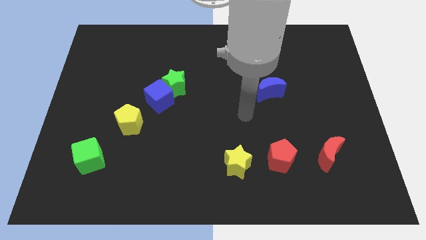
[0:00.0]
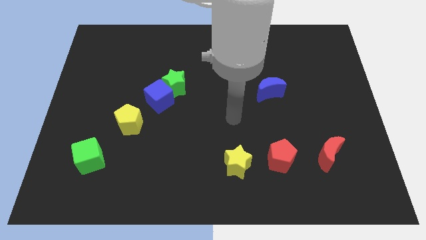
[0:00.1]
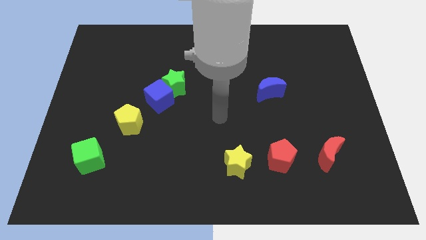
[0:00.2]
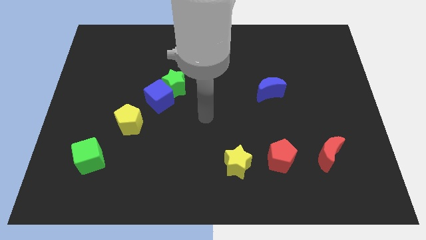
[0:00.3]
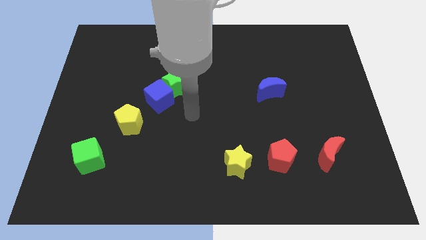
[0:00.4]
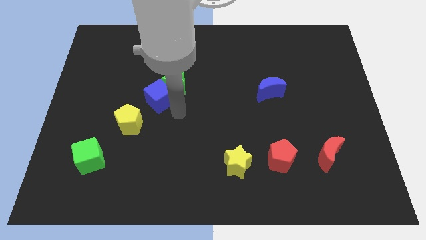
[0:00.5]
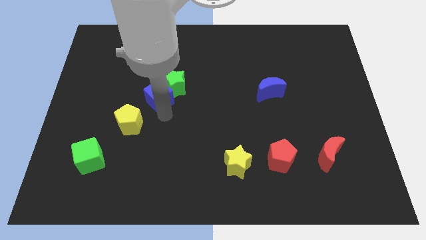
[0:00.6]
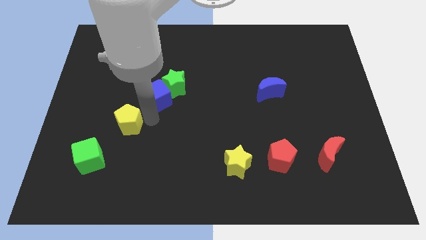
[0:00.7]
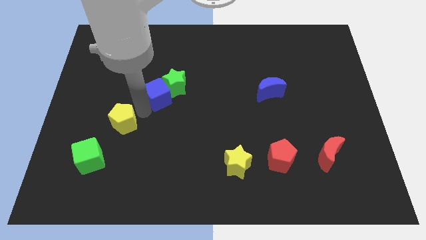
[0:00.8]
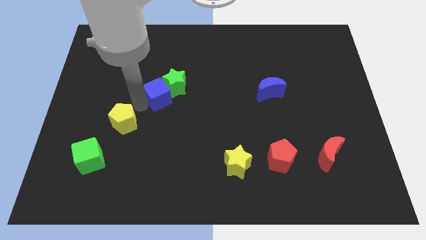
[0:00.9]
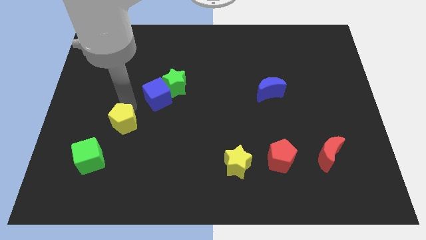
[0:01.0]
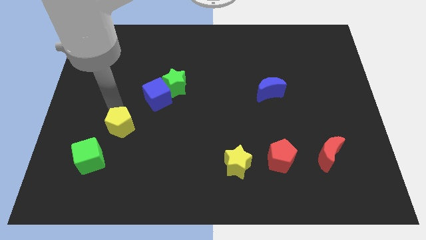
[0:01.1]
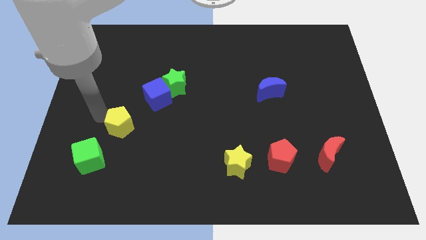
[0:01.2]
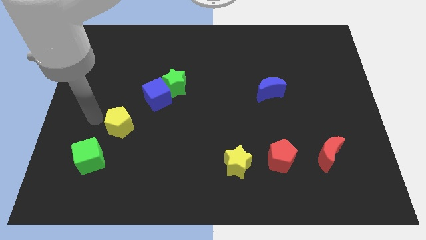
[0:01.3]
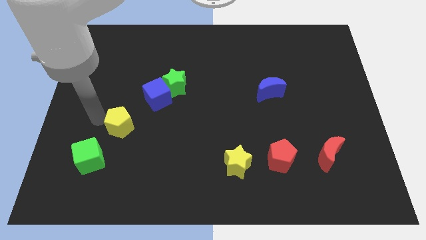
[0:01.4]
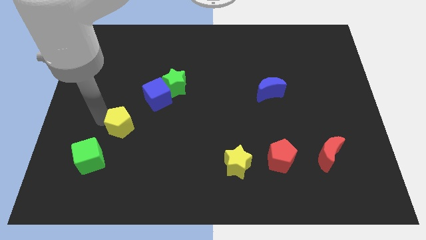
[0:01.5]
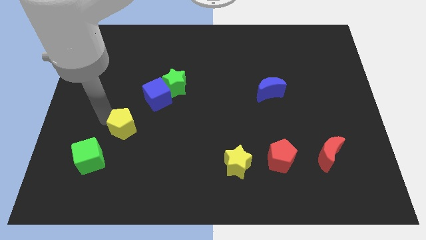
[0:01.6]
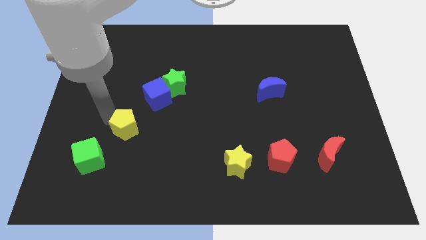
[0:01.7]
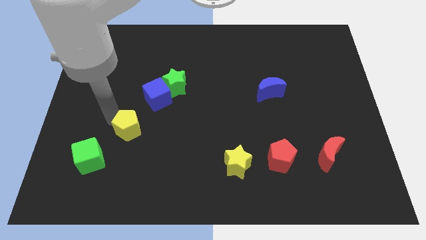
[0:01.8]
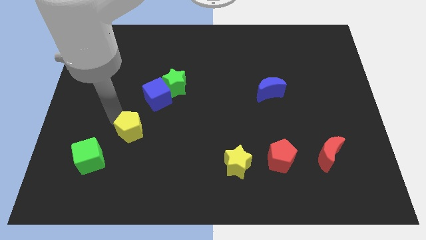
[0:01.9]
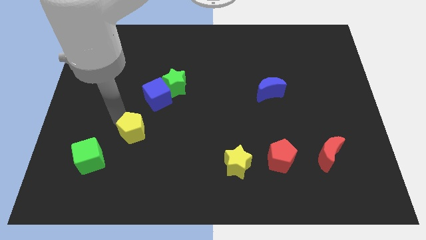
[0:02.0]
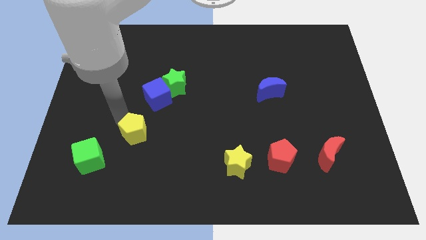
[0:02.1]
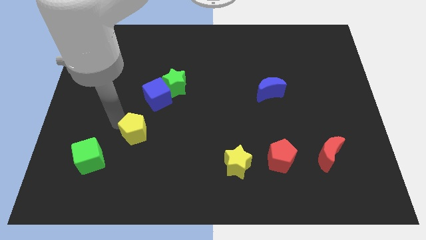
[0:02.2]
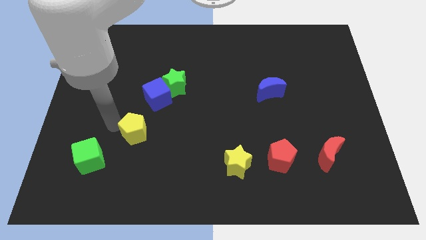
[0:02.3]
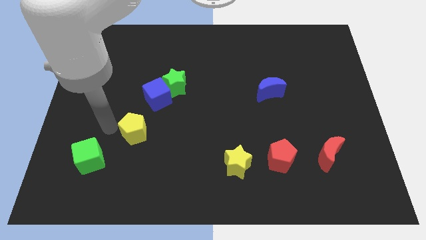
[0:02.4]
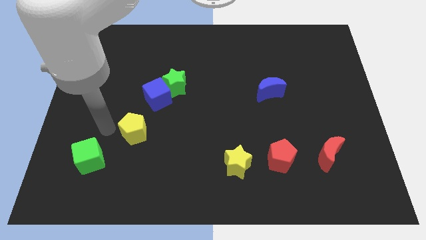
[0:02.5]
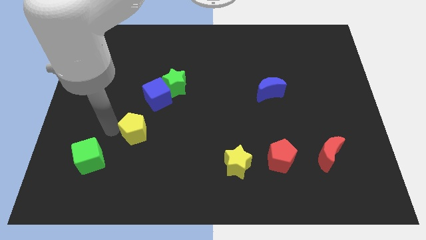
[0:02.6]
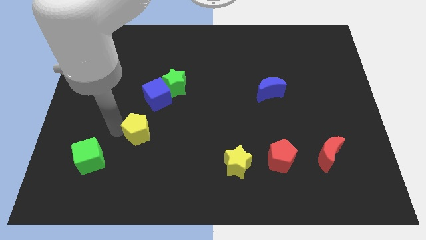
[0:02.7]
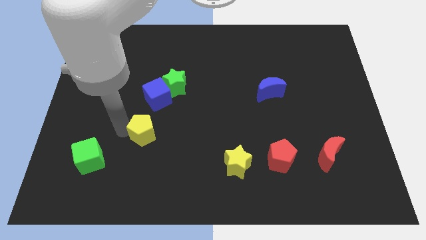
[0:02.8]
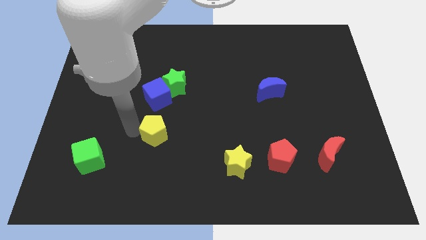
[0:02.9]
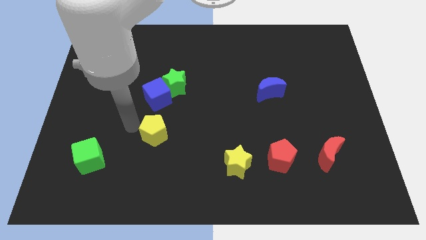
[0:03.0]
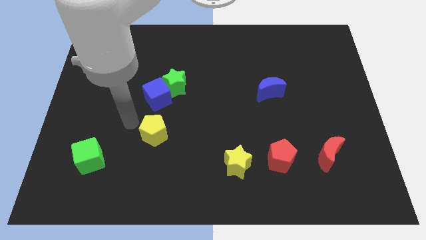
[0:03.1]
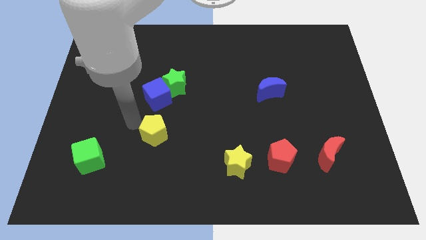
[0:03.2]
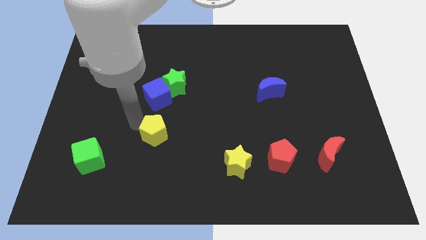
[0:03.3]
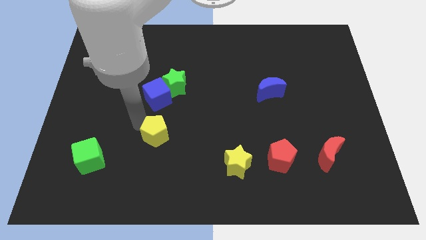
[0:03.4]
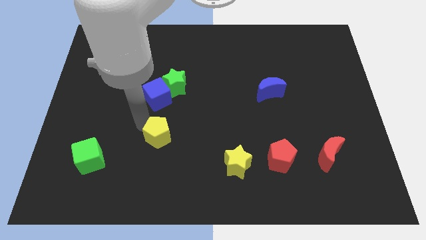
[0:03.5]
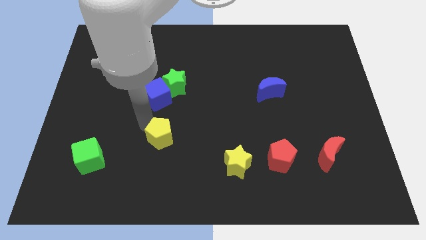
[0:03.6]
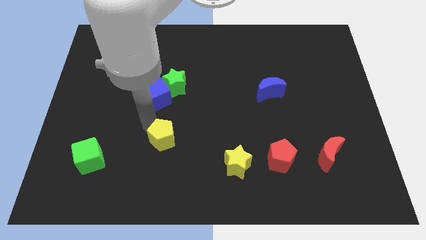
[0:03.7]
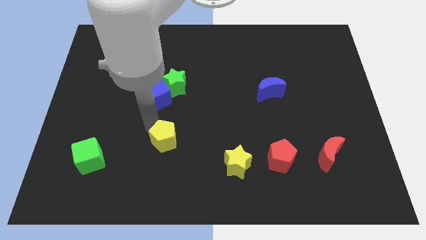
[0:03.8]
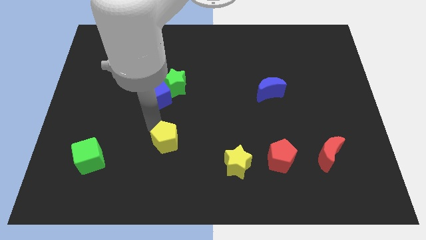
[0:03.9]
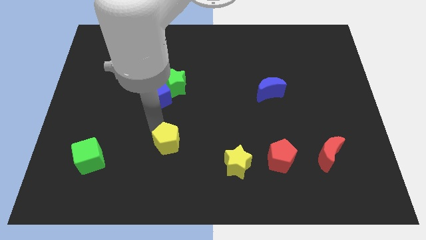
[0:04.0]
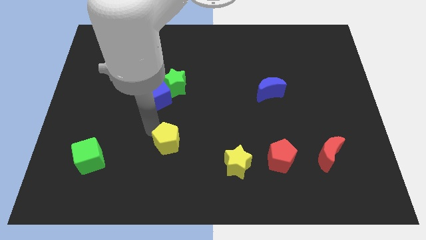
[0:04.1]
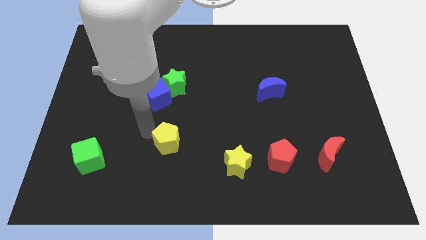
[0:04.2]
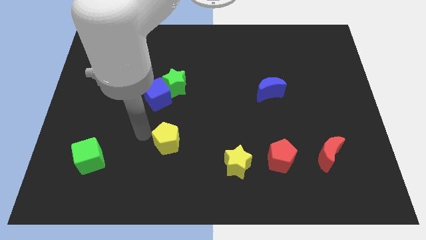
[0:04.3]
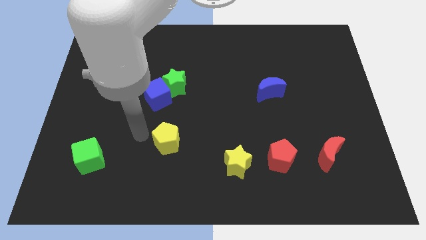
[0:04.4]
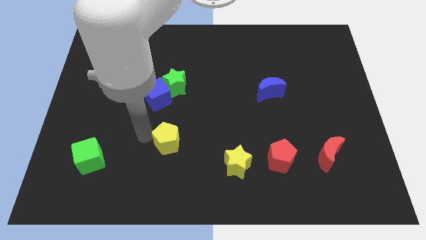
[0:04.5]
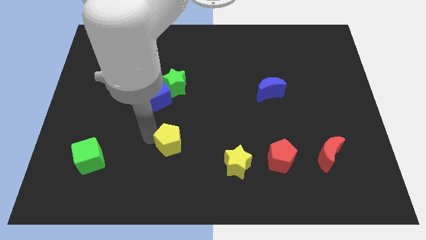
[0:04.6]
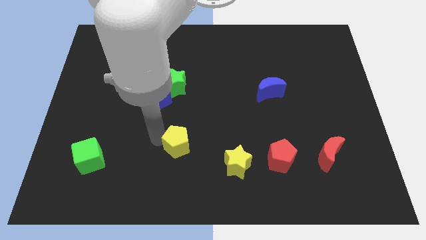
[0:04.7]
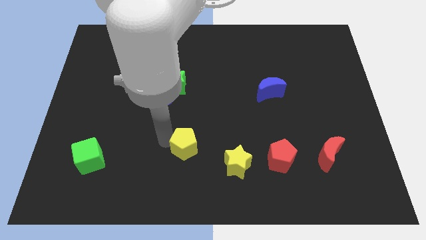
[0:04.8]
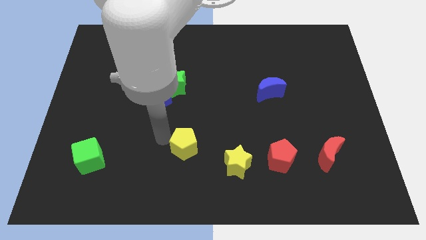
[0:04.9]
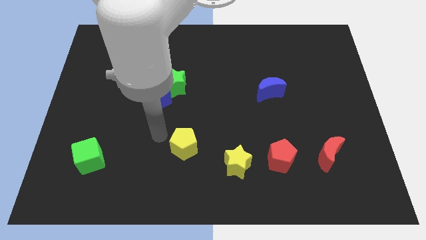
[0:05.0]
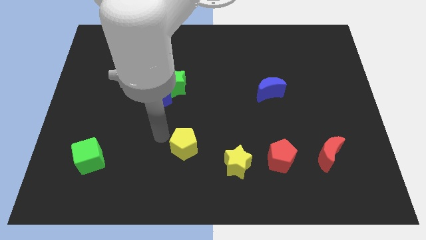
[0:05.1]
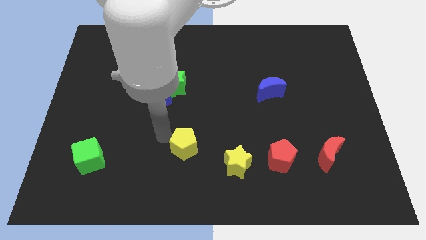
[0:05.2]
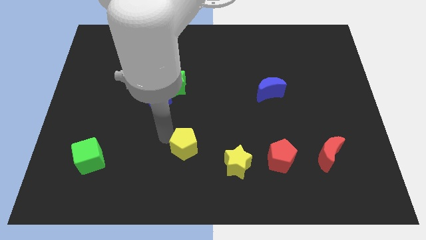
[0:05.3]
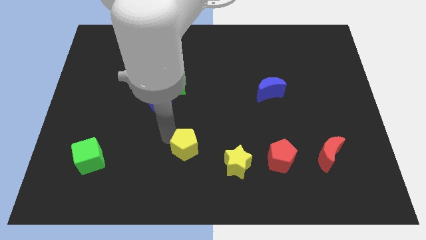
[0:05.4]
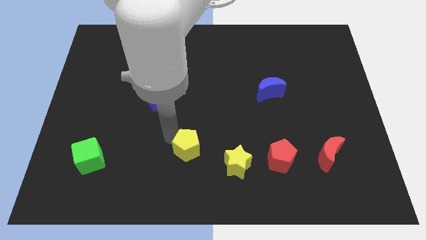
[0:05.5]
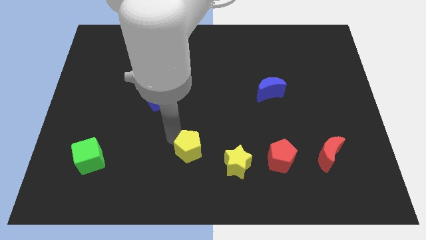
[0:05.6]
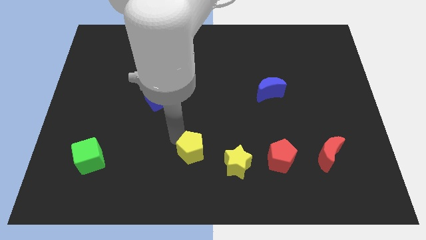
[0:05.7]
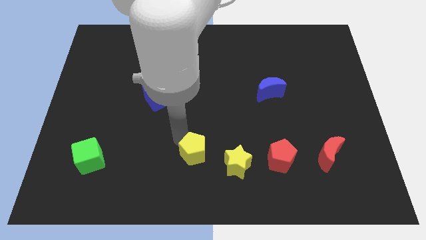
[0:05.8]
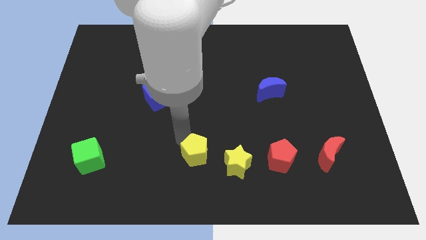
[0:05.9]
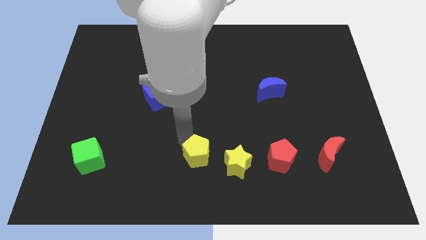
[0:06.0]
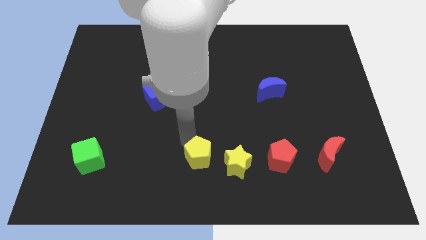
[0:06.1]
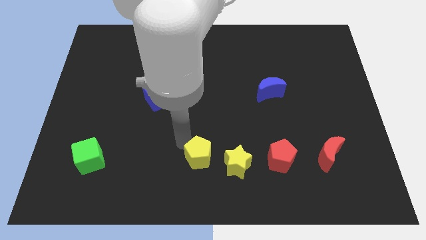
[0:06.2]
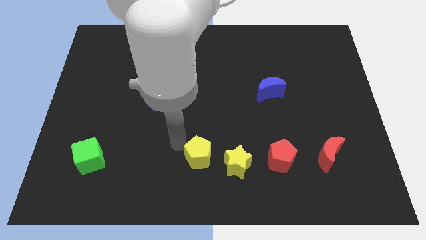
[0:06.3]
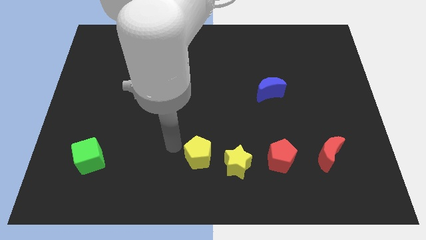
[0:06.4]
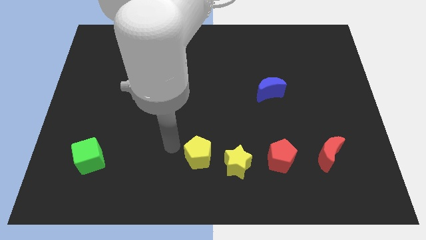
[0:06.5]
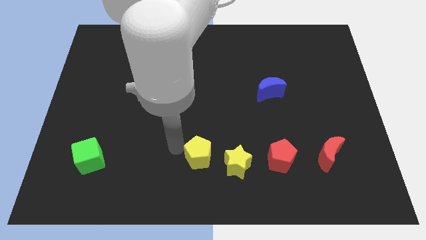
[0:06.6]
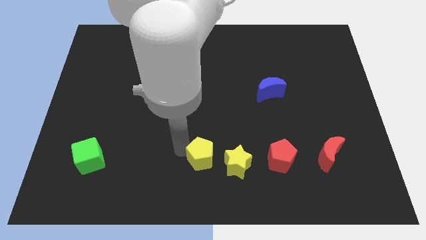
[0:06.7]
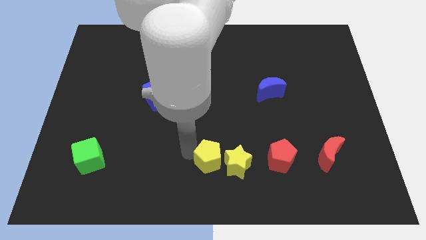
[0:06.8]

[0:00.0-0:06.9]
put the yellow pentagon next to the yellow star

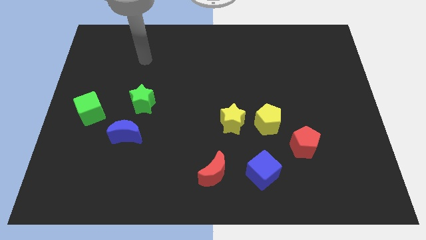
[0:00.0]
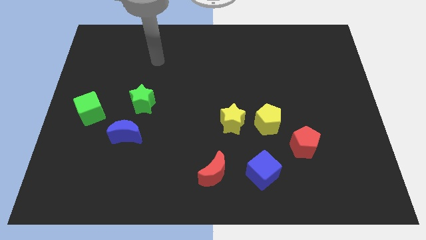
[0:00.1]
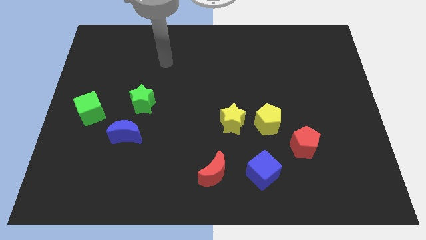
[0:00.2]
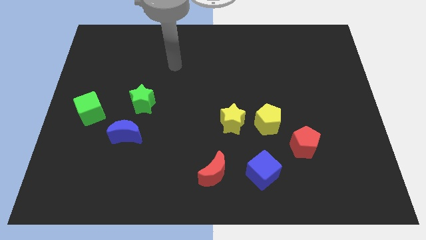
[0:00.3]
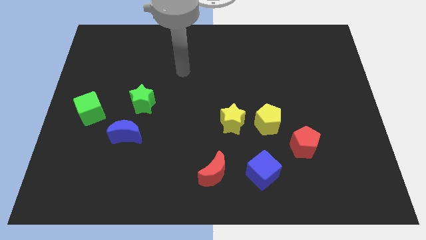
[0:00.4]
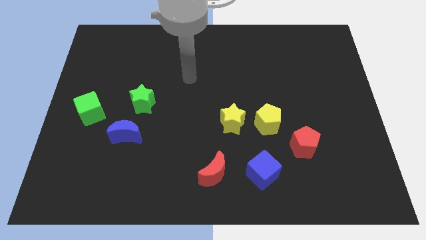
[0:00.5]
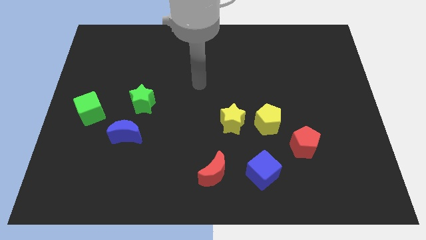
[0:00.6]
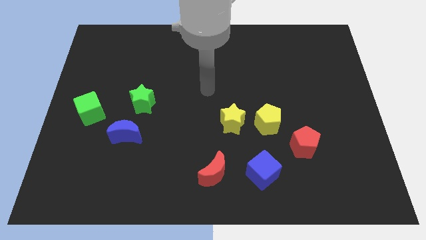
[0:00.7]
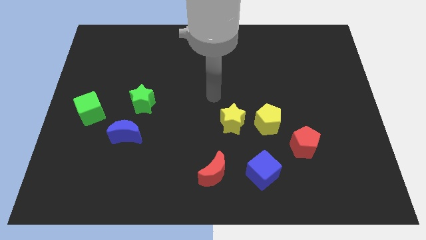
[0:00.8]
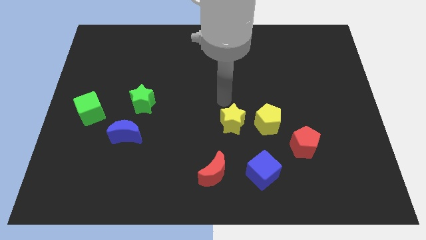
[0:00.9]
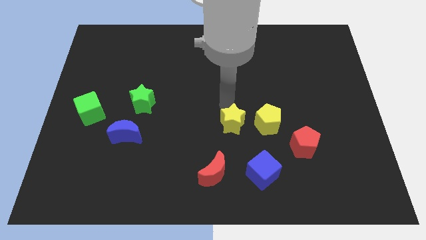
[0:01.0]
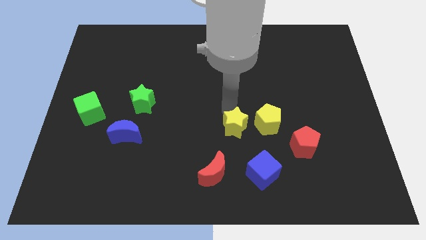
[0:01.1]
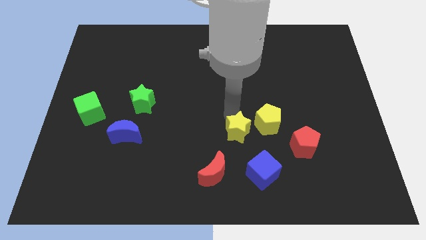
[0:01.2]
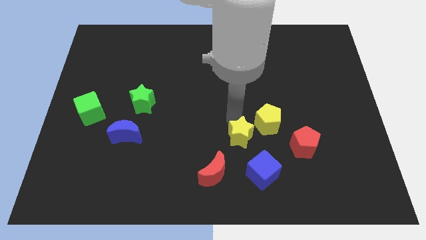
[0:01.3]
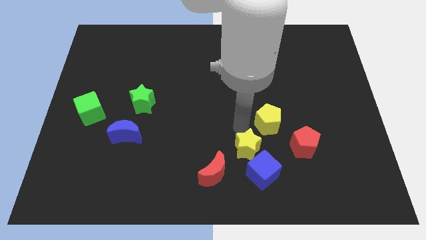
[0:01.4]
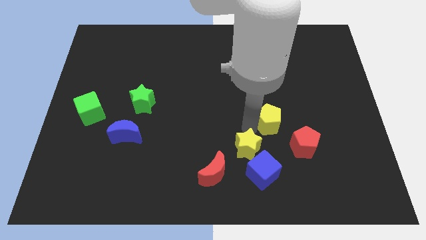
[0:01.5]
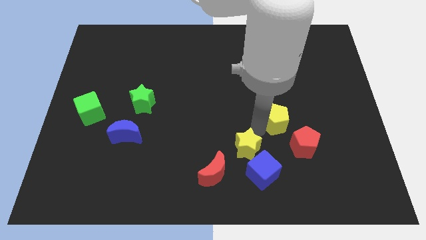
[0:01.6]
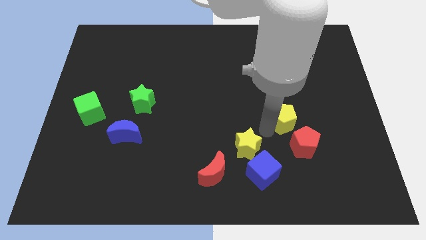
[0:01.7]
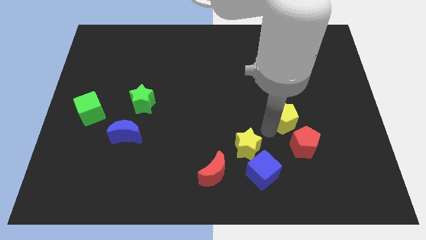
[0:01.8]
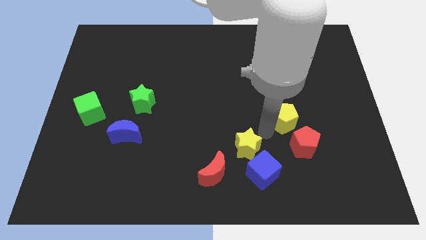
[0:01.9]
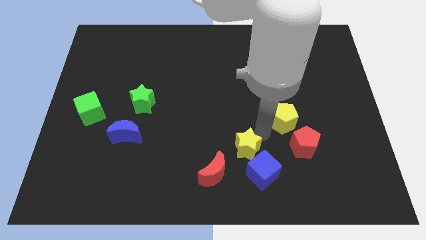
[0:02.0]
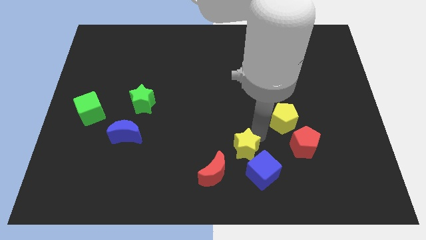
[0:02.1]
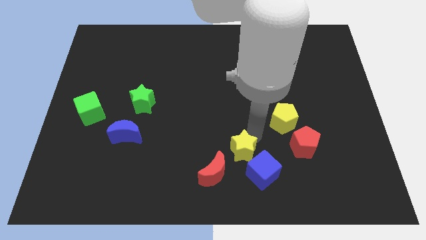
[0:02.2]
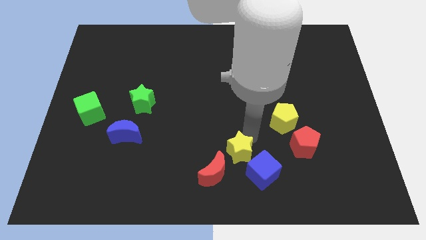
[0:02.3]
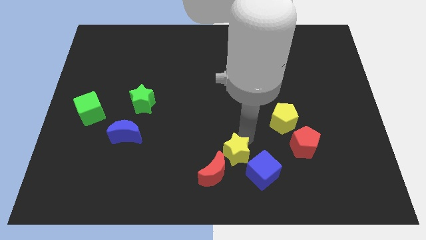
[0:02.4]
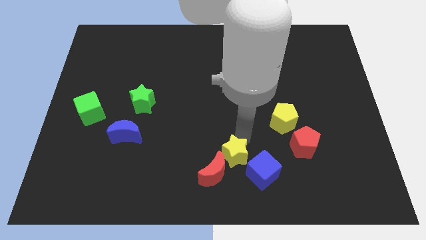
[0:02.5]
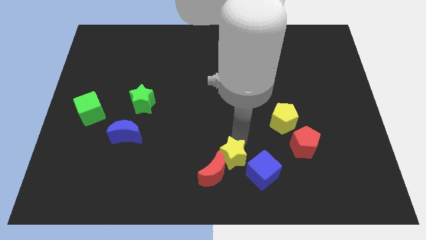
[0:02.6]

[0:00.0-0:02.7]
push the yellow star to the red moon
